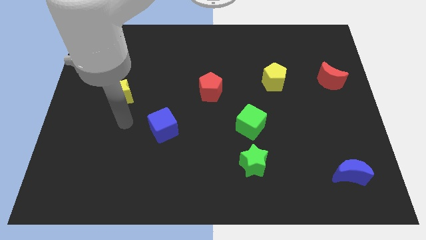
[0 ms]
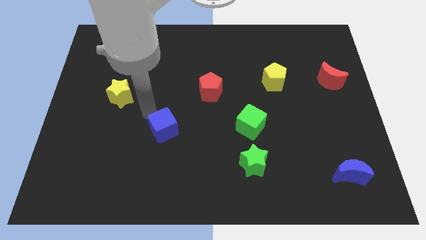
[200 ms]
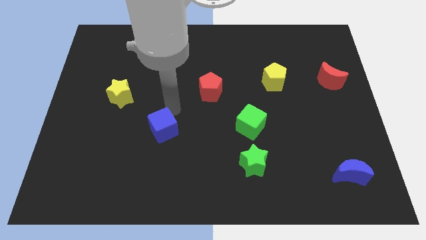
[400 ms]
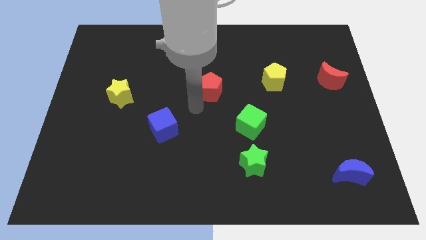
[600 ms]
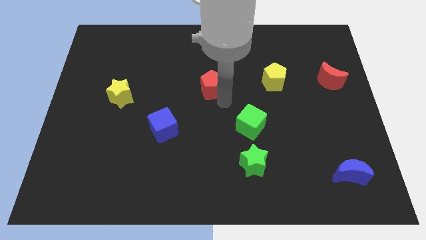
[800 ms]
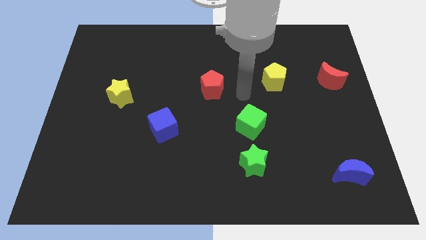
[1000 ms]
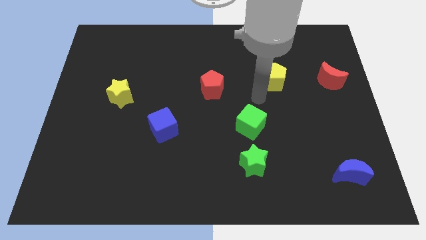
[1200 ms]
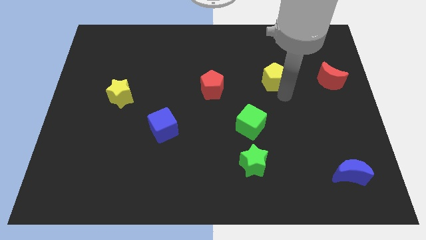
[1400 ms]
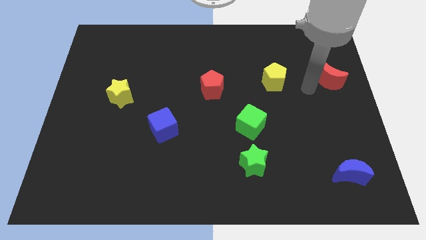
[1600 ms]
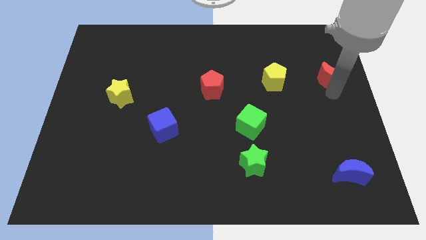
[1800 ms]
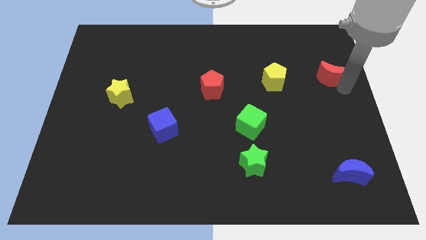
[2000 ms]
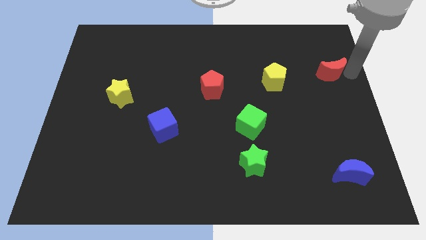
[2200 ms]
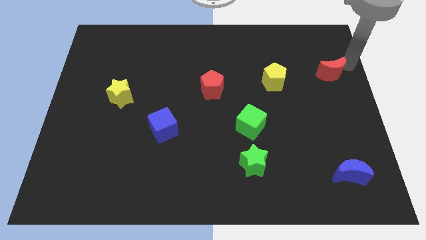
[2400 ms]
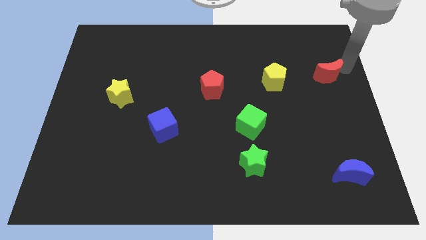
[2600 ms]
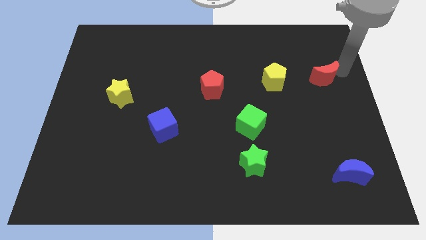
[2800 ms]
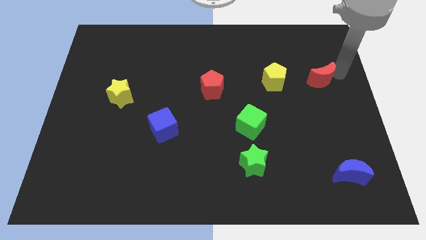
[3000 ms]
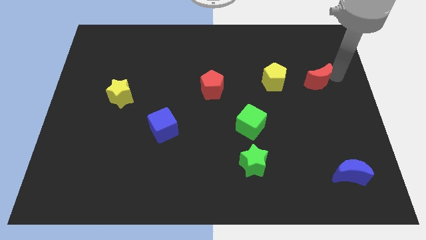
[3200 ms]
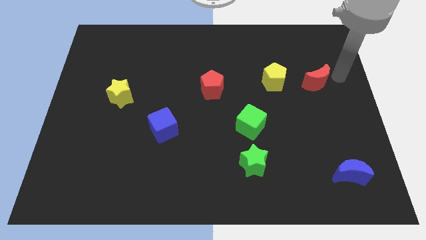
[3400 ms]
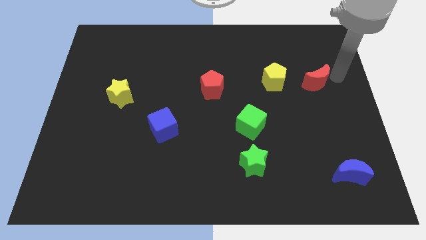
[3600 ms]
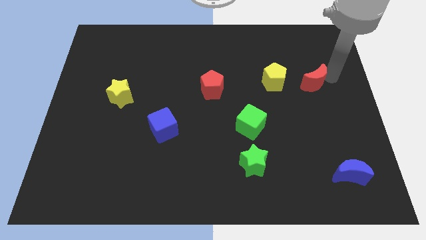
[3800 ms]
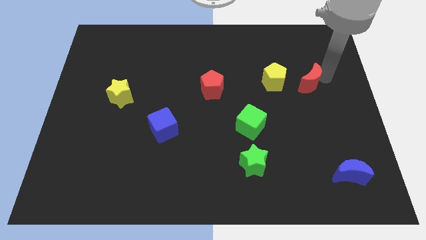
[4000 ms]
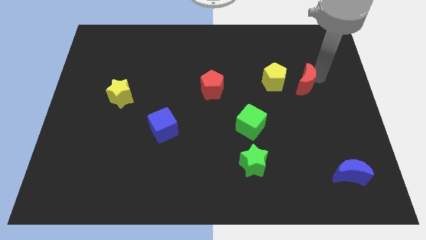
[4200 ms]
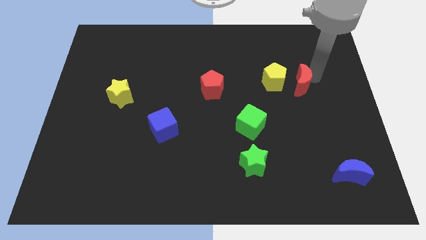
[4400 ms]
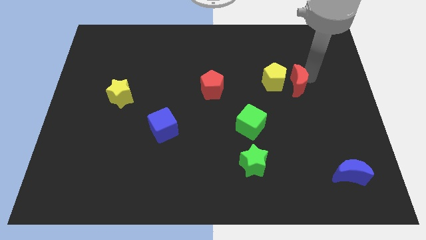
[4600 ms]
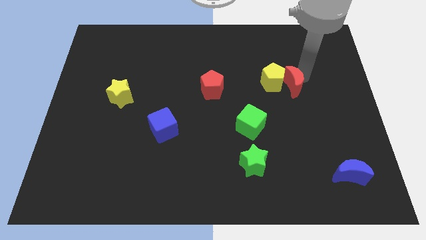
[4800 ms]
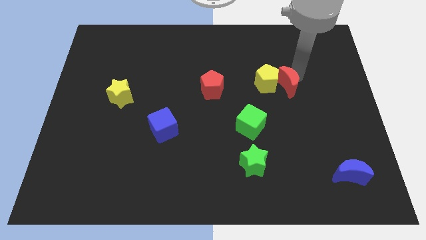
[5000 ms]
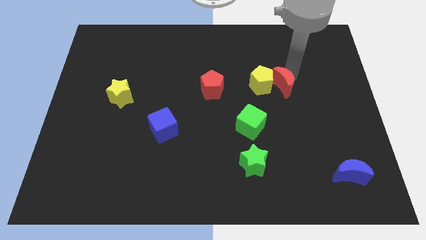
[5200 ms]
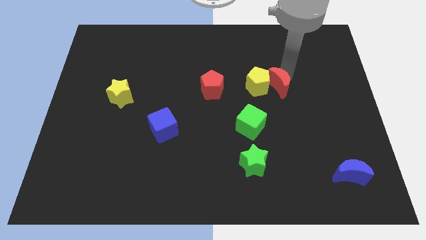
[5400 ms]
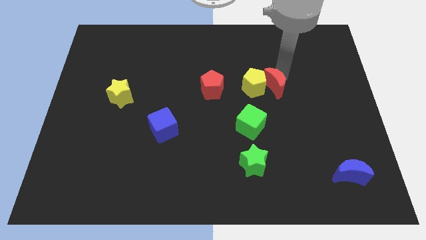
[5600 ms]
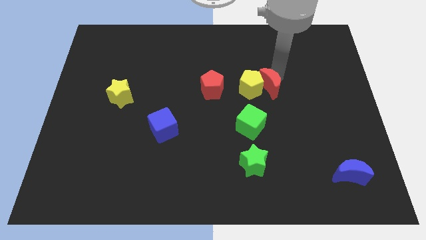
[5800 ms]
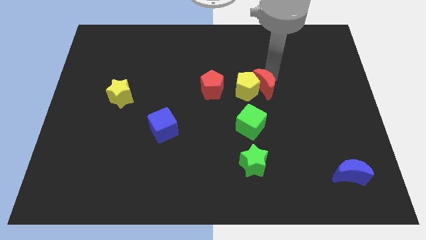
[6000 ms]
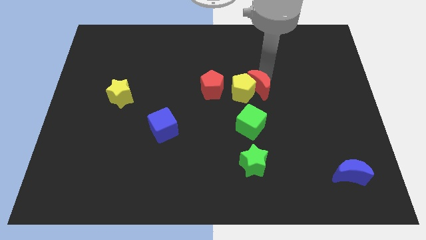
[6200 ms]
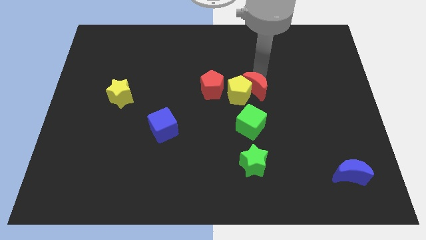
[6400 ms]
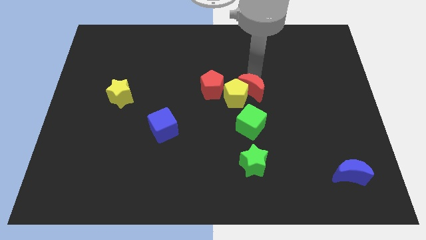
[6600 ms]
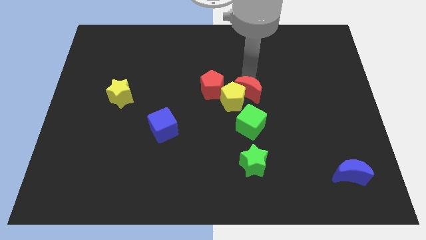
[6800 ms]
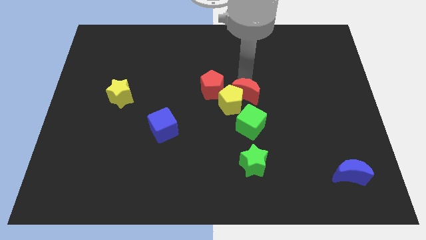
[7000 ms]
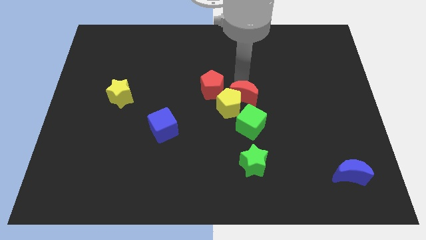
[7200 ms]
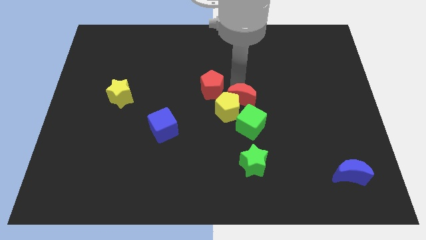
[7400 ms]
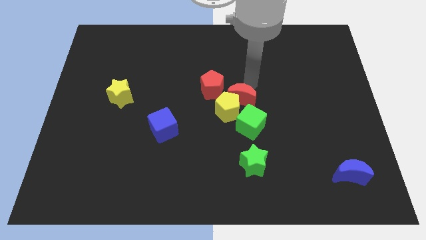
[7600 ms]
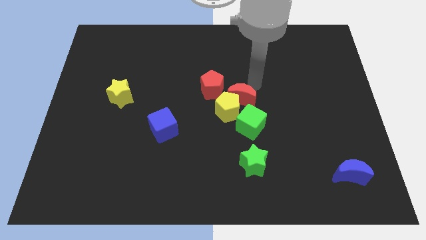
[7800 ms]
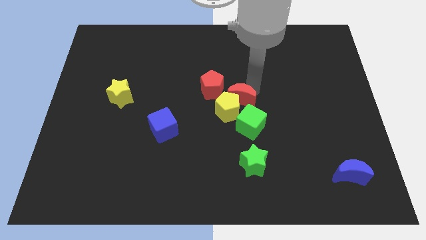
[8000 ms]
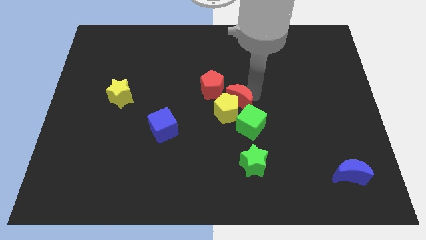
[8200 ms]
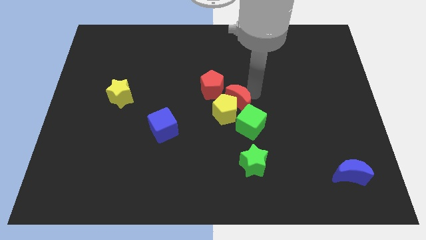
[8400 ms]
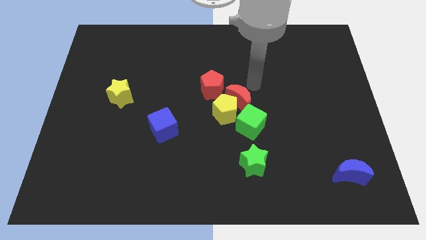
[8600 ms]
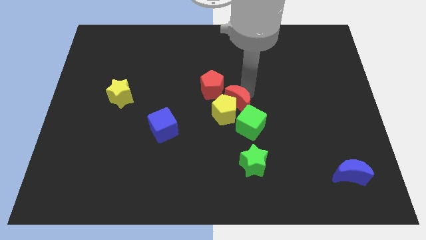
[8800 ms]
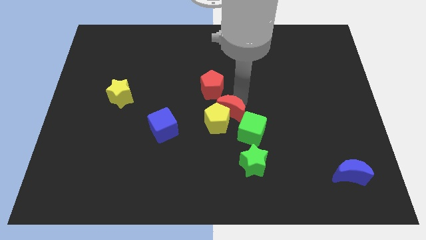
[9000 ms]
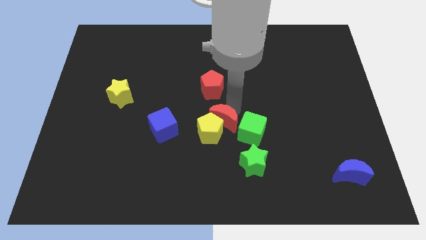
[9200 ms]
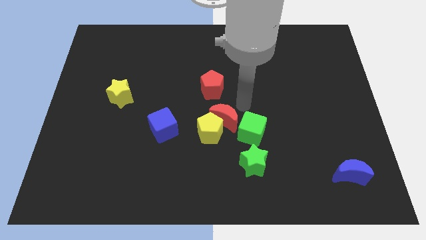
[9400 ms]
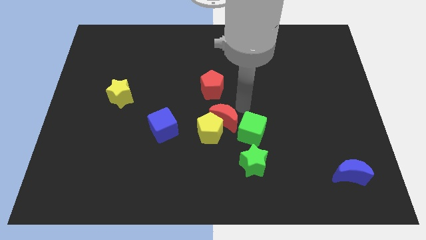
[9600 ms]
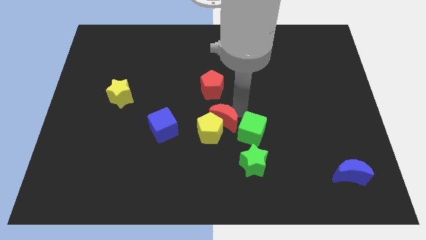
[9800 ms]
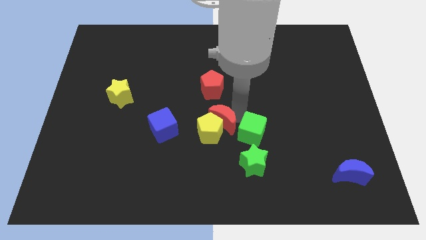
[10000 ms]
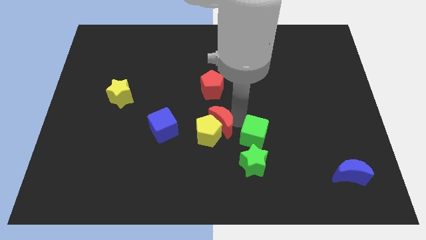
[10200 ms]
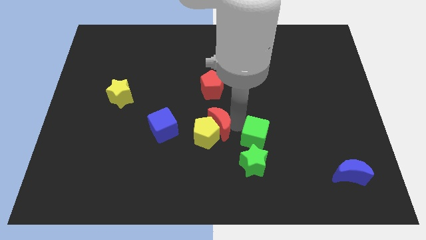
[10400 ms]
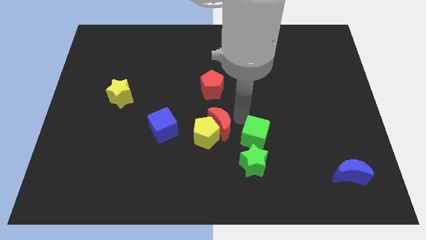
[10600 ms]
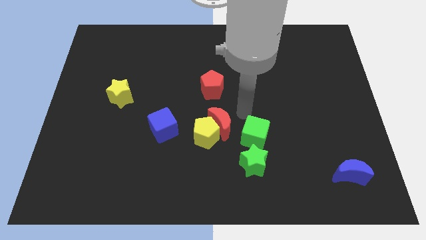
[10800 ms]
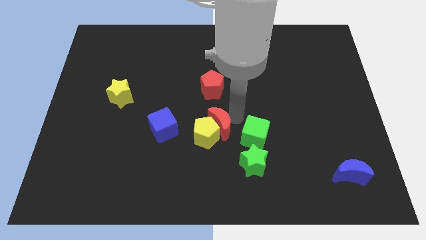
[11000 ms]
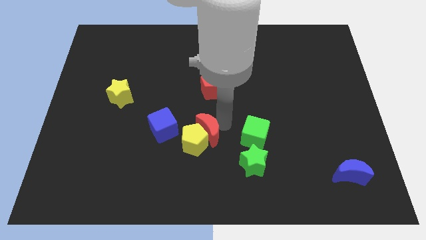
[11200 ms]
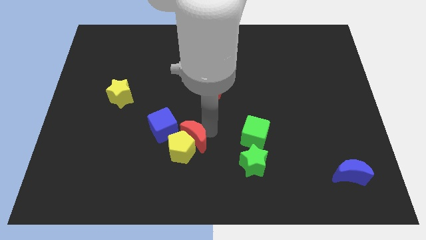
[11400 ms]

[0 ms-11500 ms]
put the red moon diagonally down and to the right of the blue cube
